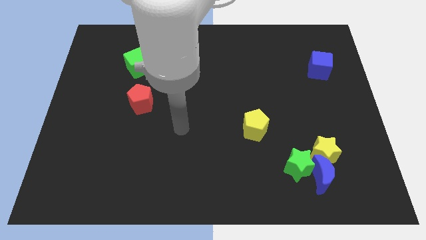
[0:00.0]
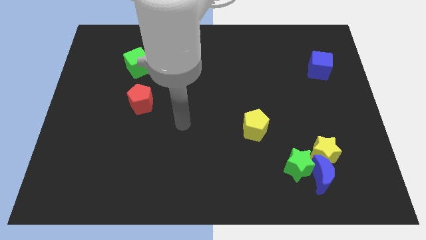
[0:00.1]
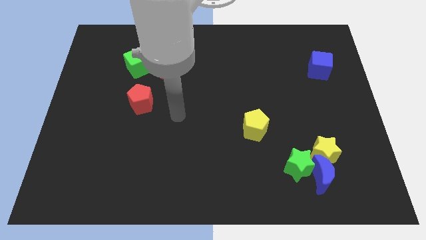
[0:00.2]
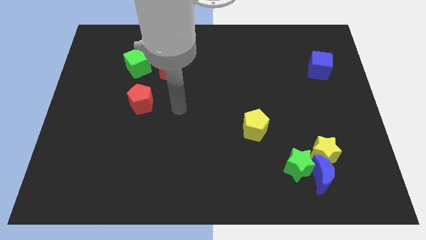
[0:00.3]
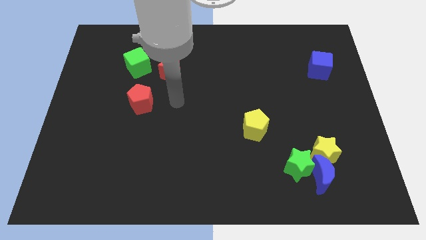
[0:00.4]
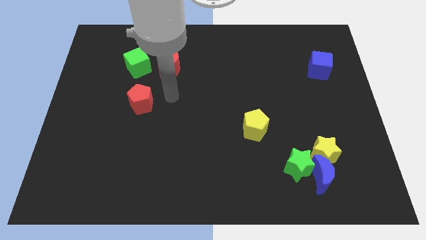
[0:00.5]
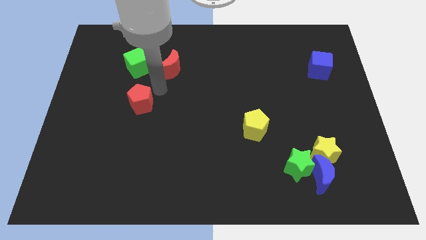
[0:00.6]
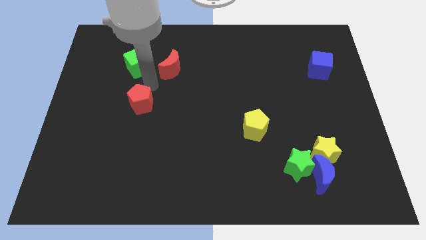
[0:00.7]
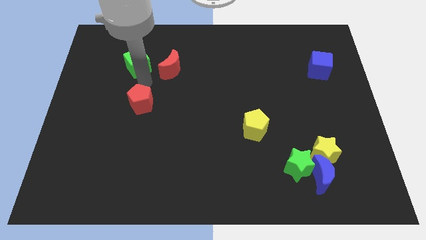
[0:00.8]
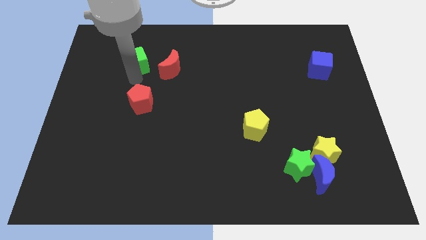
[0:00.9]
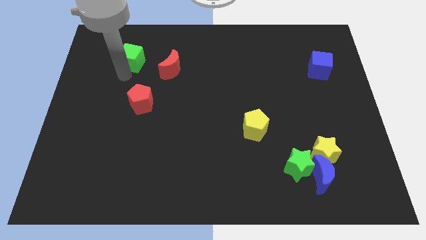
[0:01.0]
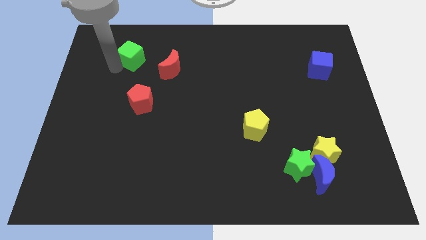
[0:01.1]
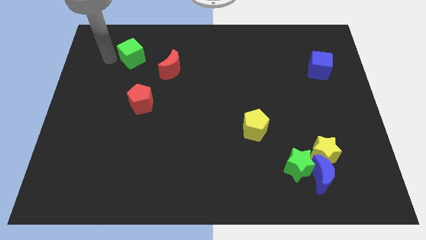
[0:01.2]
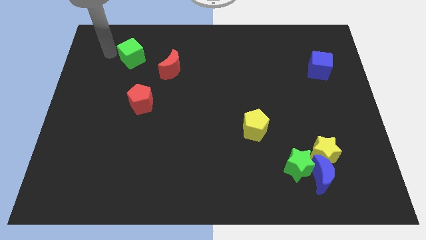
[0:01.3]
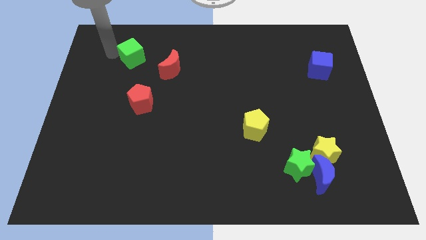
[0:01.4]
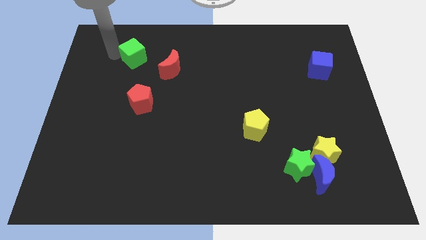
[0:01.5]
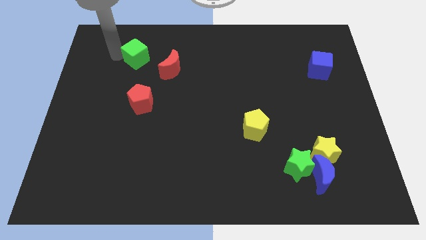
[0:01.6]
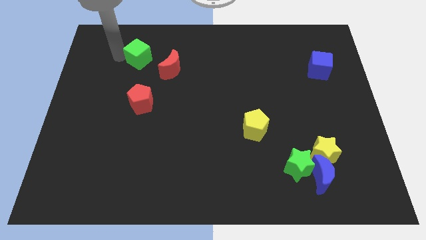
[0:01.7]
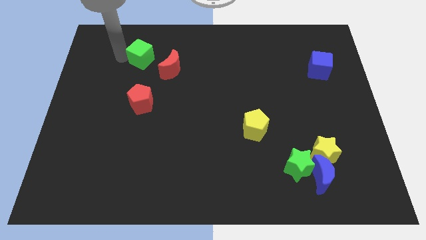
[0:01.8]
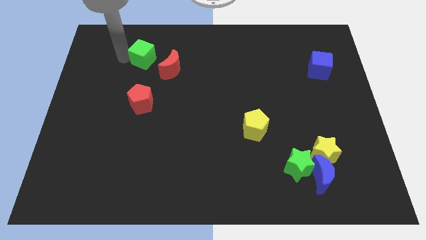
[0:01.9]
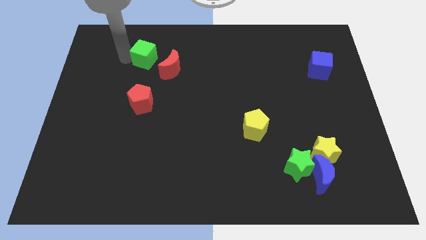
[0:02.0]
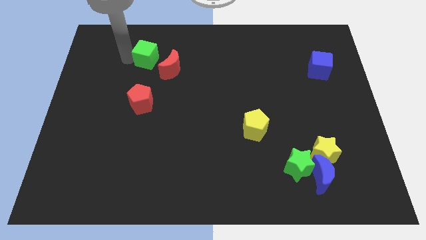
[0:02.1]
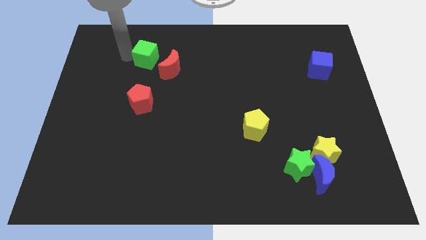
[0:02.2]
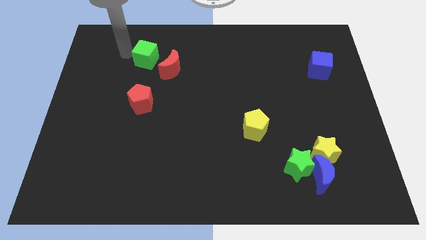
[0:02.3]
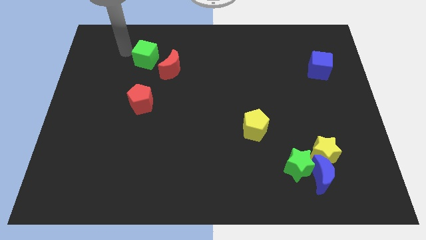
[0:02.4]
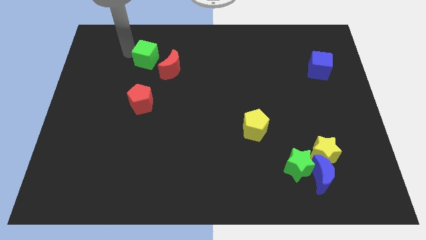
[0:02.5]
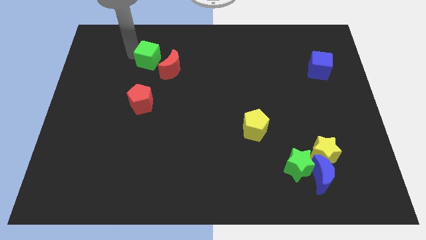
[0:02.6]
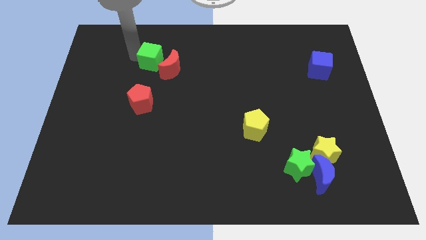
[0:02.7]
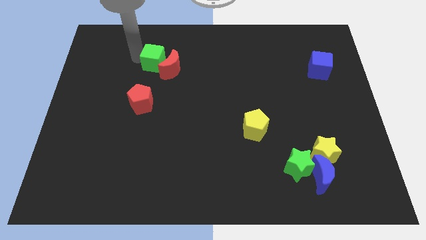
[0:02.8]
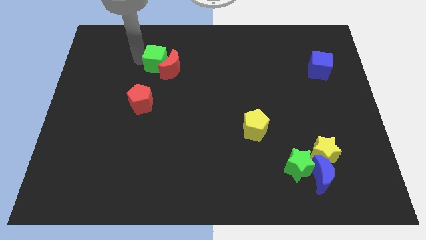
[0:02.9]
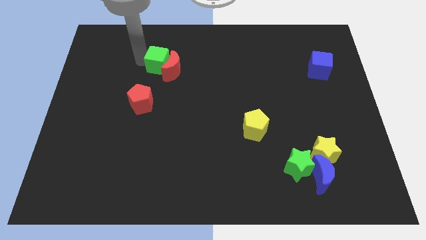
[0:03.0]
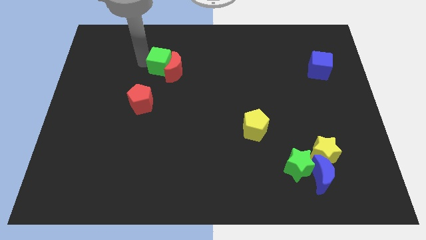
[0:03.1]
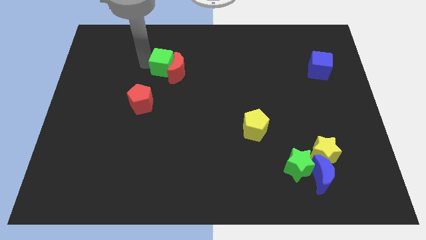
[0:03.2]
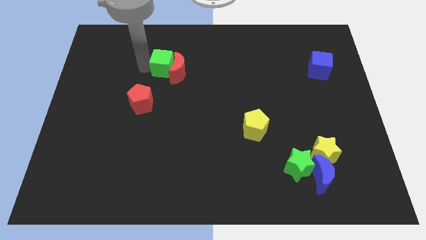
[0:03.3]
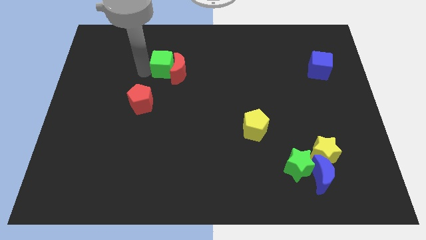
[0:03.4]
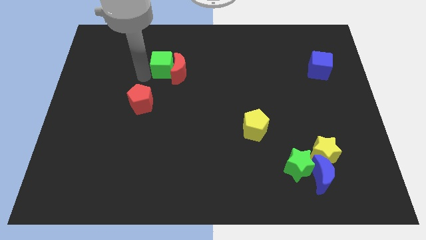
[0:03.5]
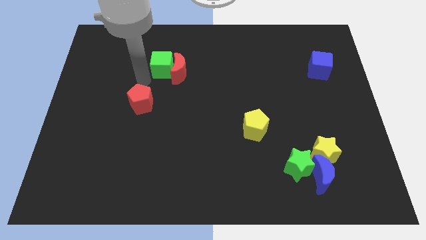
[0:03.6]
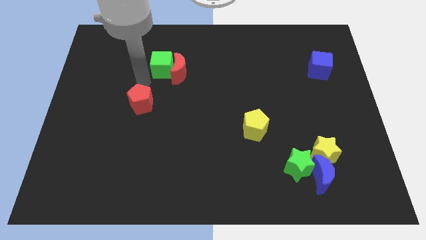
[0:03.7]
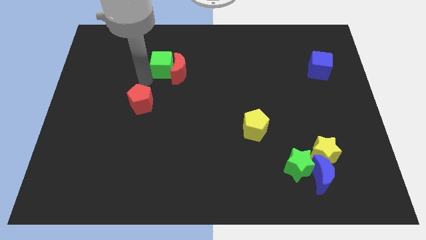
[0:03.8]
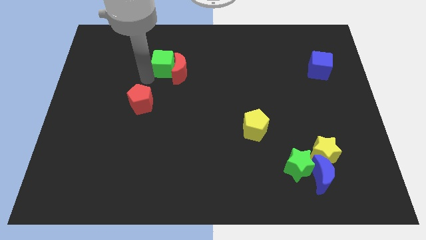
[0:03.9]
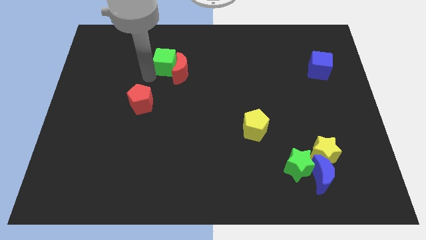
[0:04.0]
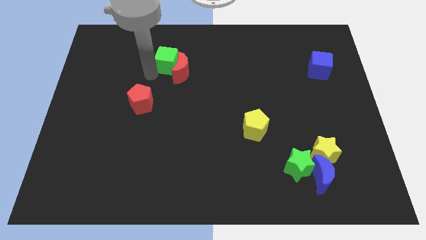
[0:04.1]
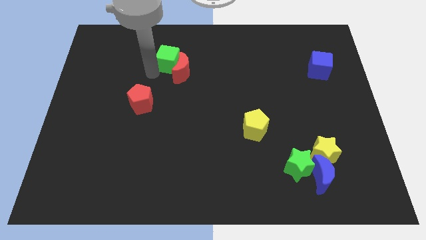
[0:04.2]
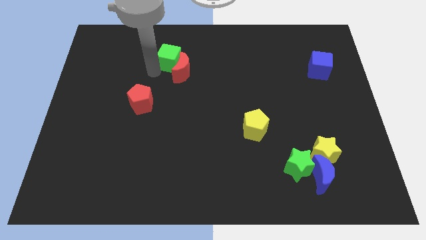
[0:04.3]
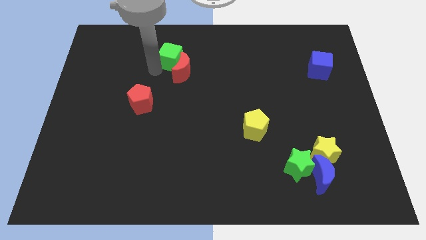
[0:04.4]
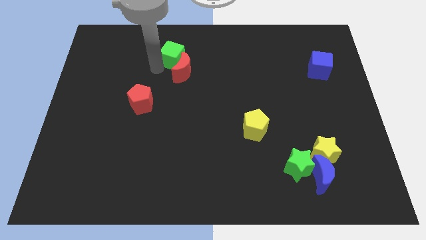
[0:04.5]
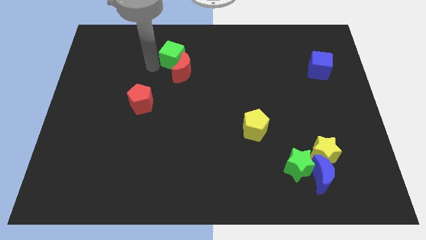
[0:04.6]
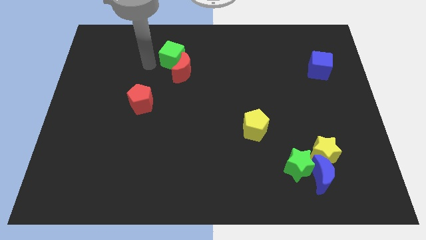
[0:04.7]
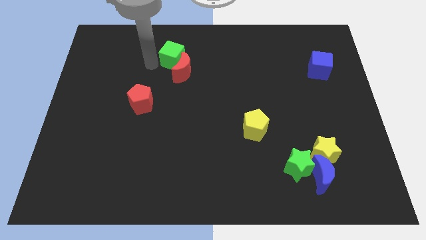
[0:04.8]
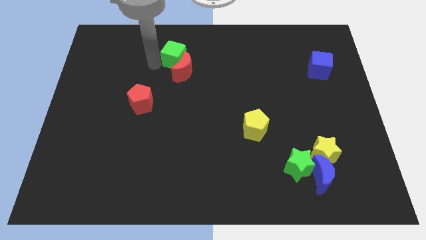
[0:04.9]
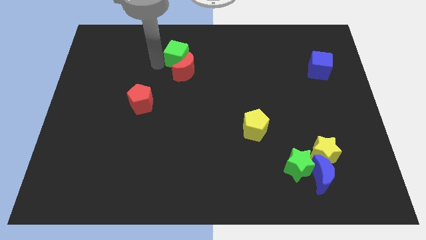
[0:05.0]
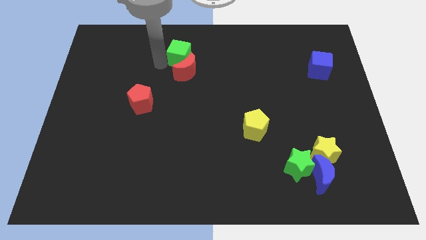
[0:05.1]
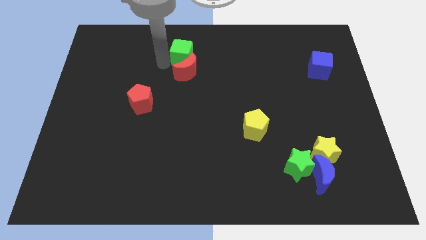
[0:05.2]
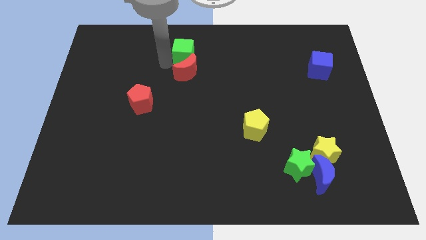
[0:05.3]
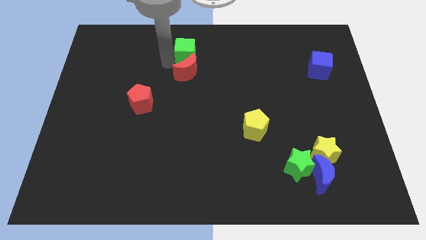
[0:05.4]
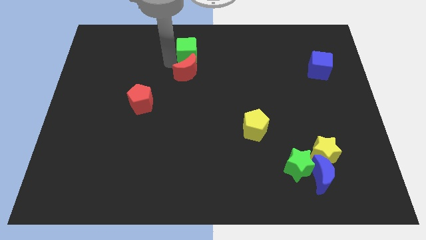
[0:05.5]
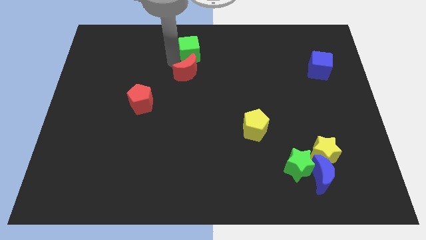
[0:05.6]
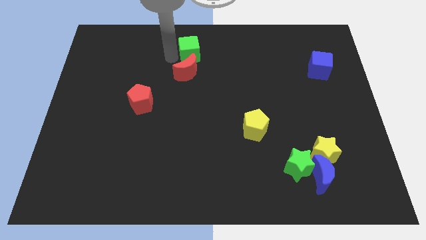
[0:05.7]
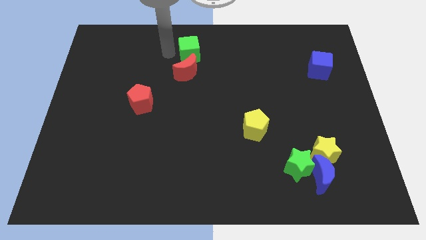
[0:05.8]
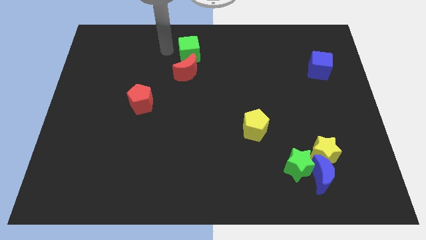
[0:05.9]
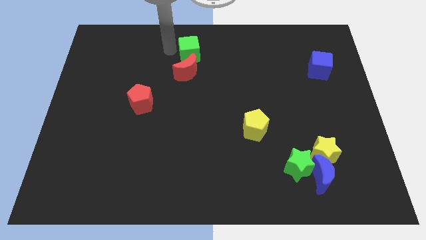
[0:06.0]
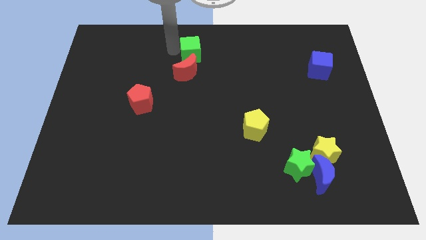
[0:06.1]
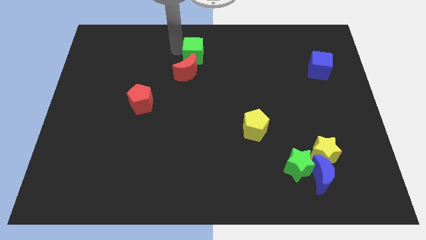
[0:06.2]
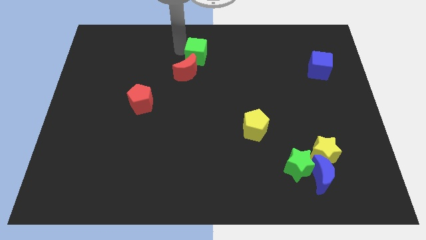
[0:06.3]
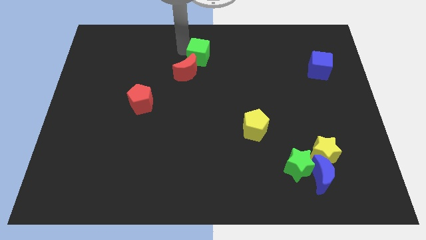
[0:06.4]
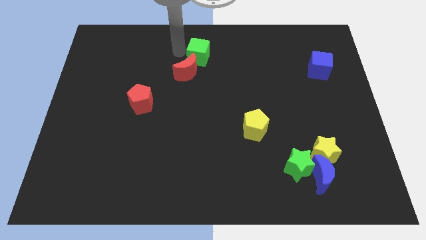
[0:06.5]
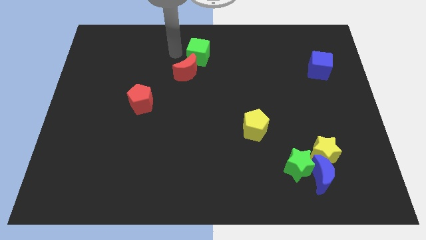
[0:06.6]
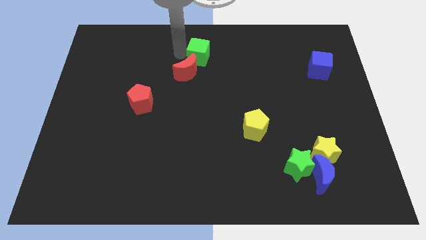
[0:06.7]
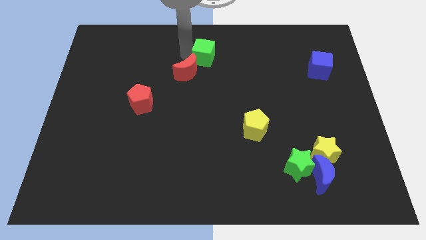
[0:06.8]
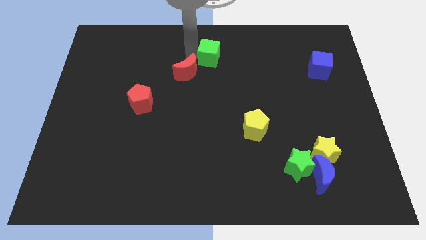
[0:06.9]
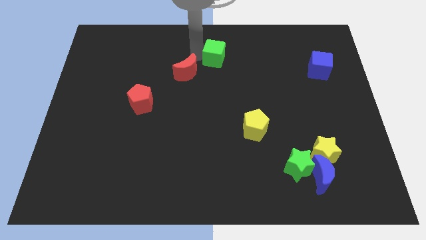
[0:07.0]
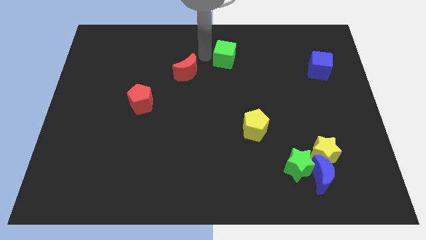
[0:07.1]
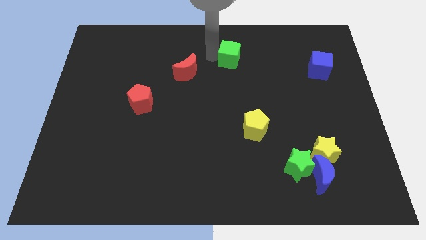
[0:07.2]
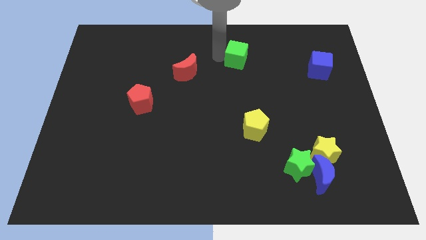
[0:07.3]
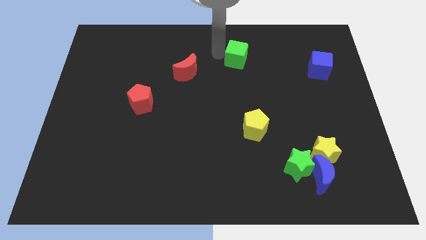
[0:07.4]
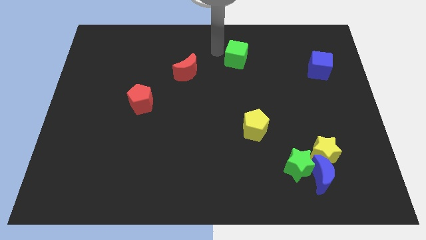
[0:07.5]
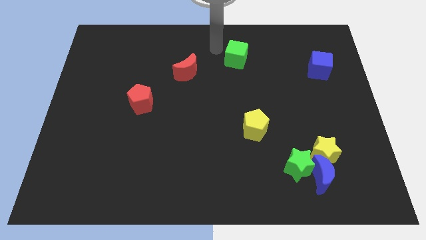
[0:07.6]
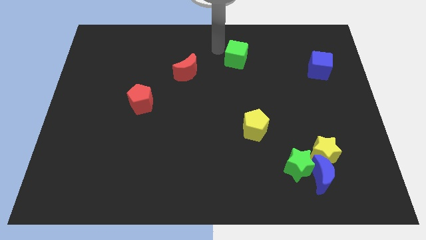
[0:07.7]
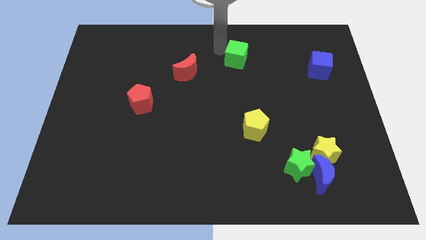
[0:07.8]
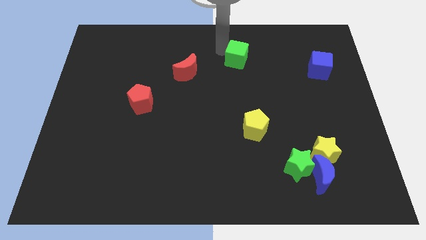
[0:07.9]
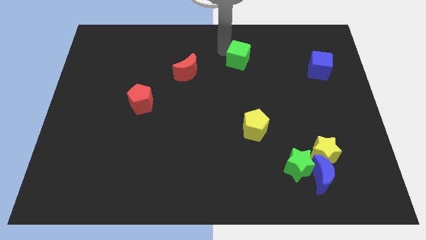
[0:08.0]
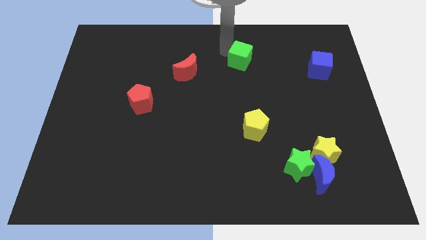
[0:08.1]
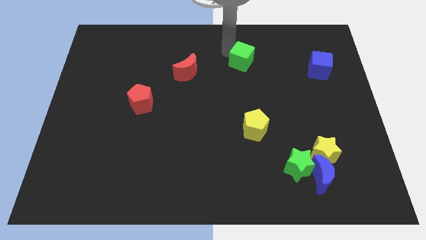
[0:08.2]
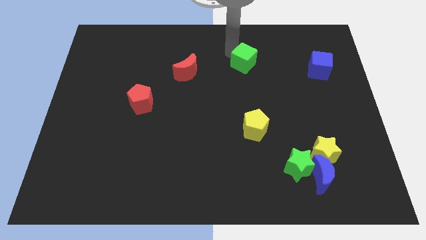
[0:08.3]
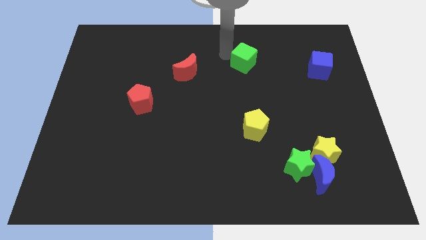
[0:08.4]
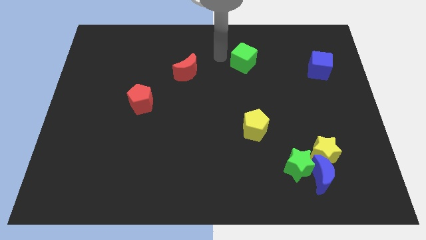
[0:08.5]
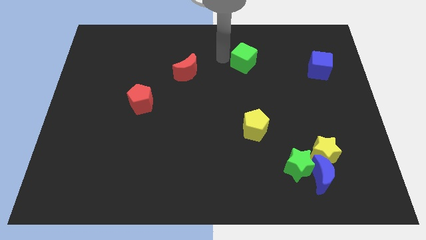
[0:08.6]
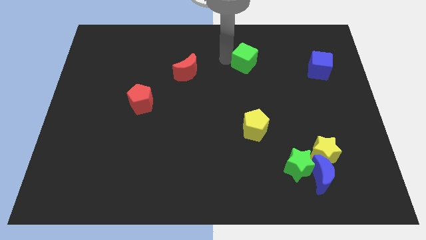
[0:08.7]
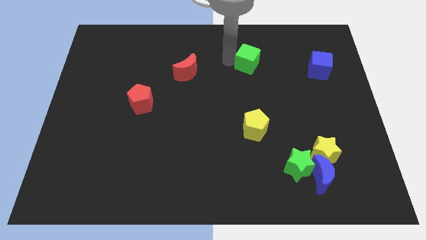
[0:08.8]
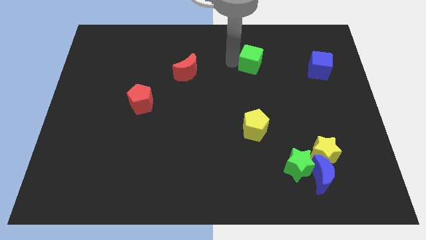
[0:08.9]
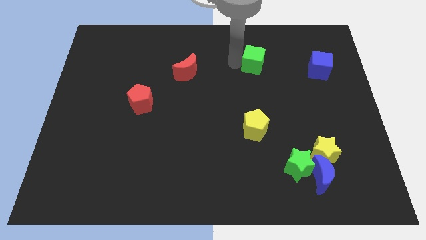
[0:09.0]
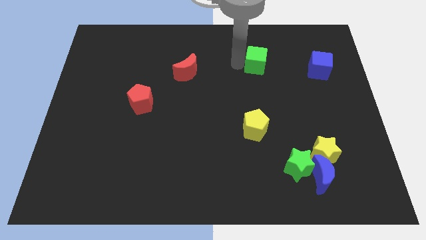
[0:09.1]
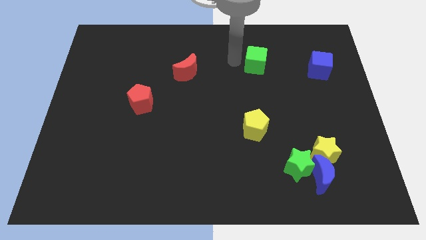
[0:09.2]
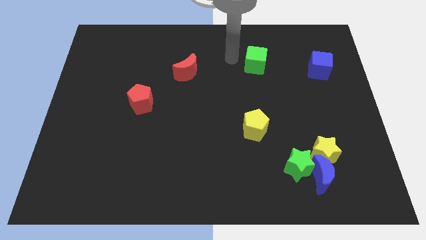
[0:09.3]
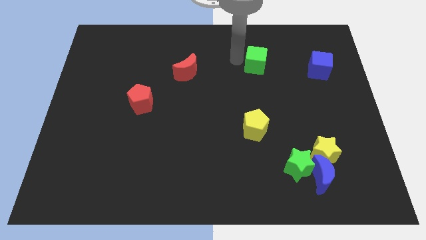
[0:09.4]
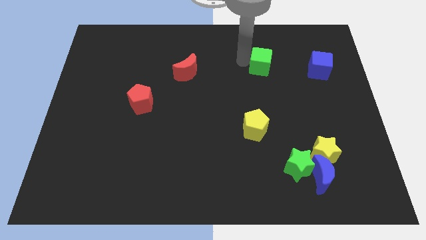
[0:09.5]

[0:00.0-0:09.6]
put the green cube to the left of the blue cube
